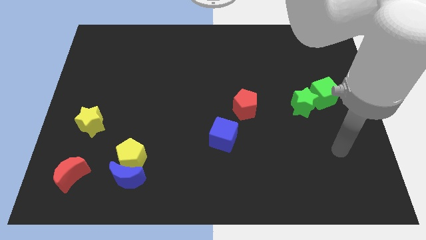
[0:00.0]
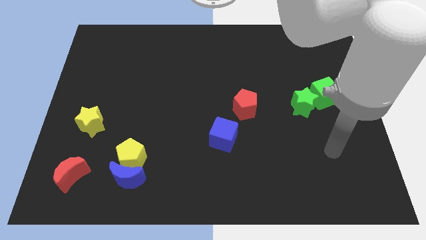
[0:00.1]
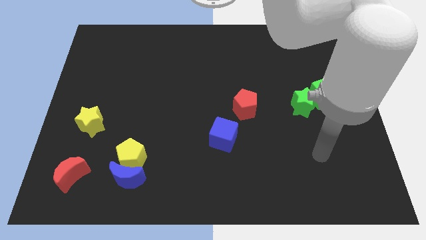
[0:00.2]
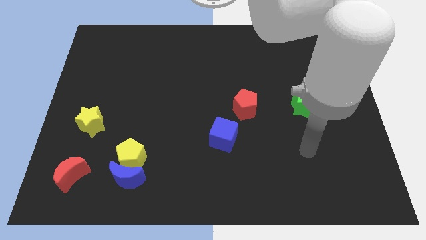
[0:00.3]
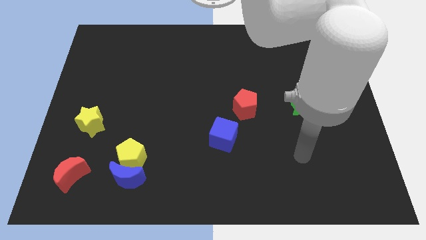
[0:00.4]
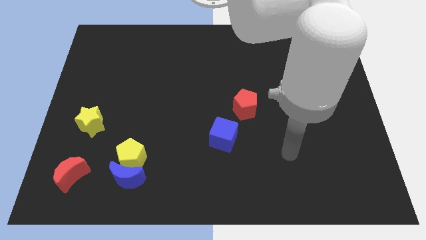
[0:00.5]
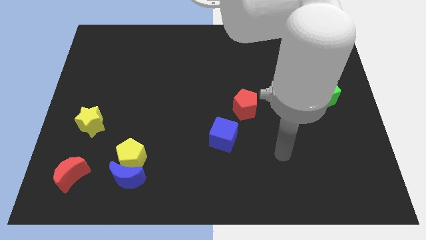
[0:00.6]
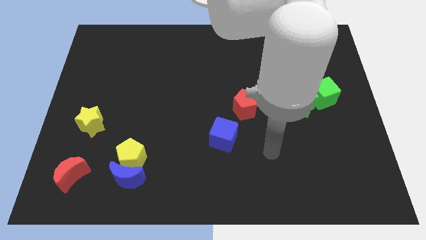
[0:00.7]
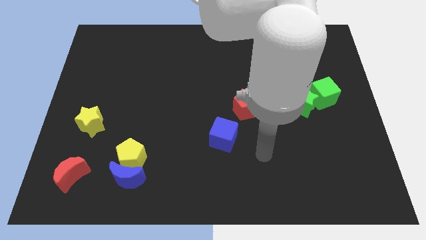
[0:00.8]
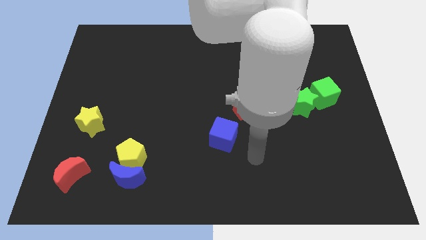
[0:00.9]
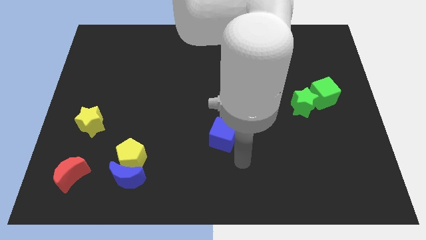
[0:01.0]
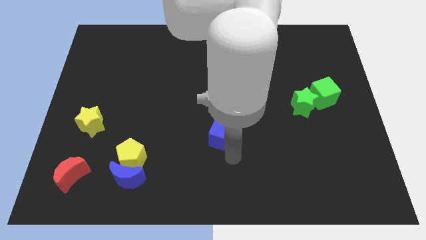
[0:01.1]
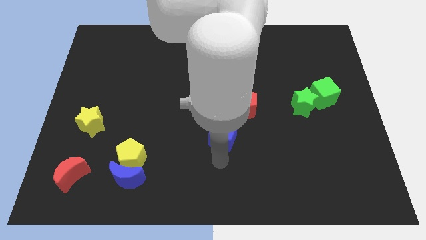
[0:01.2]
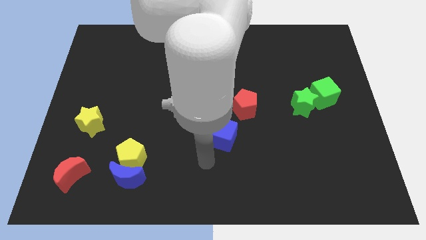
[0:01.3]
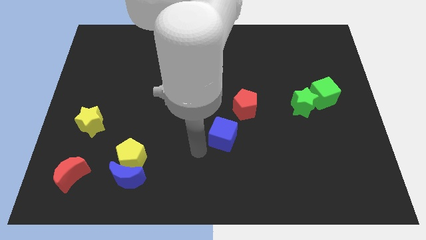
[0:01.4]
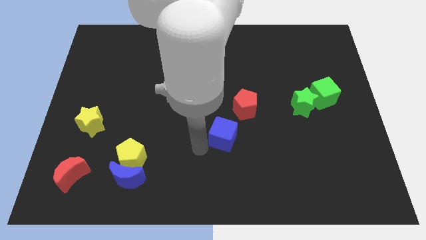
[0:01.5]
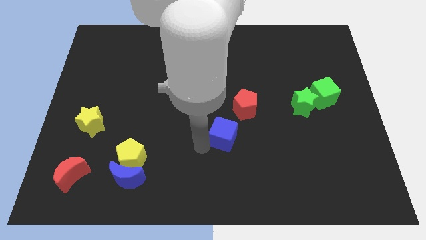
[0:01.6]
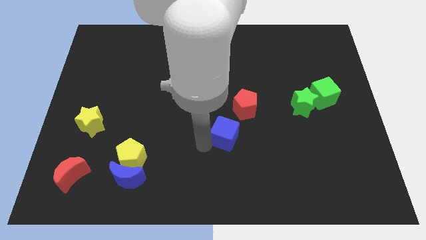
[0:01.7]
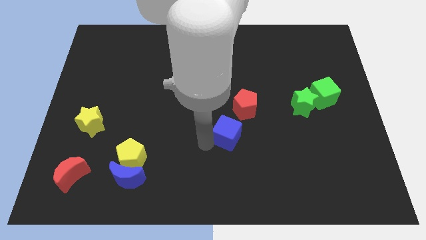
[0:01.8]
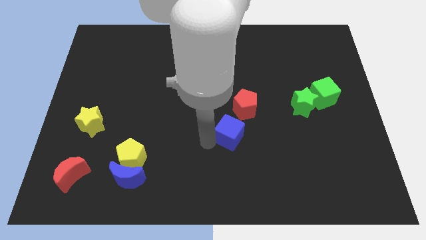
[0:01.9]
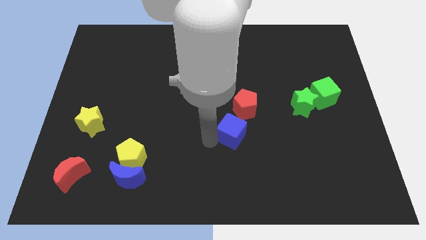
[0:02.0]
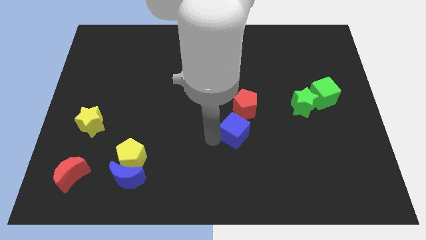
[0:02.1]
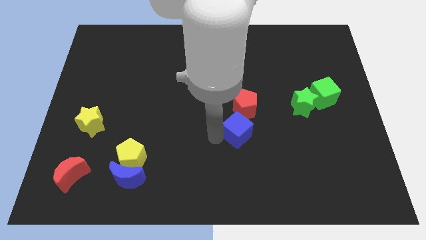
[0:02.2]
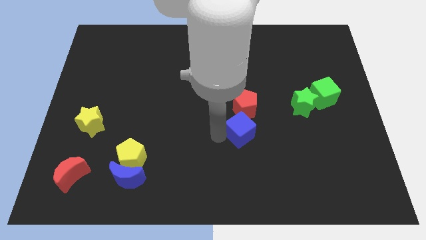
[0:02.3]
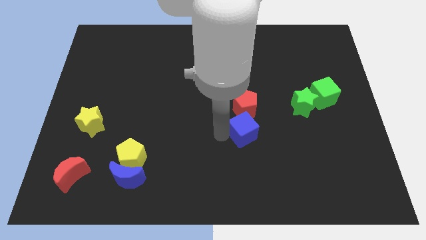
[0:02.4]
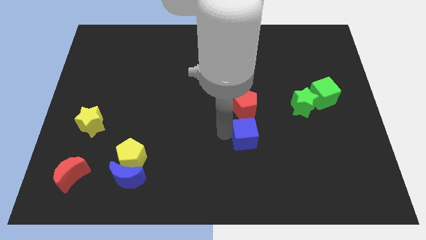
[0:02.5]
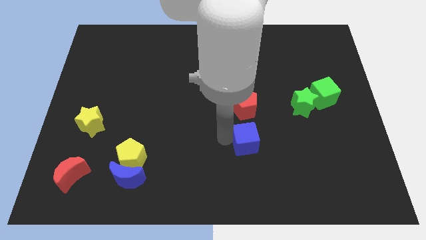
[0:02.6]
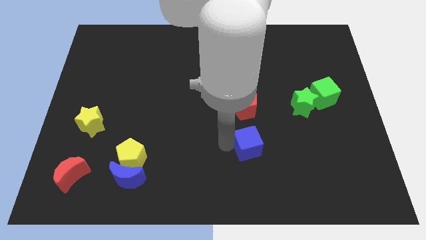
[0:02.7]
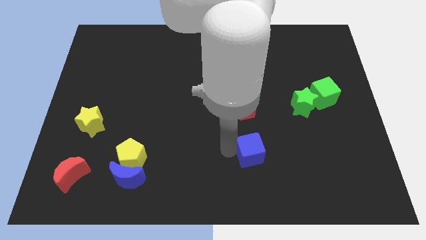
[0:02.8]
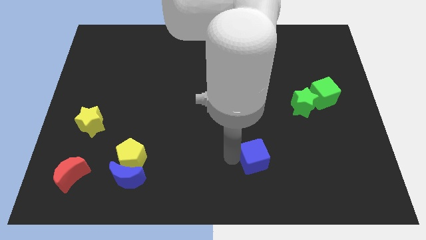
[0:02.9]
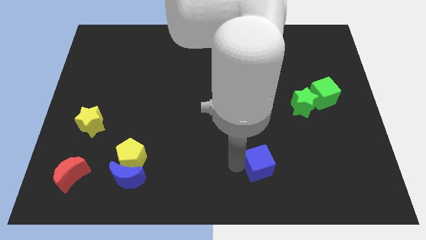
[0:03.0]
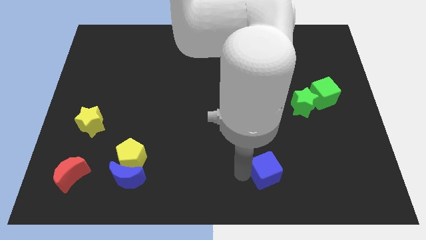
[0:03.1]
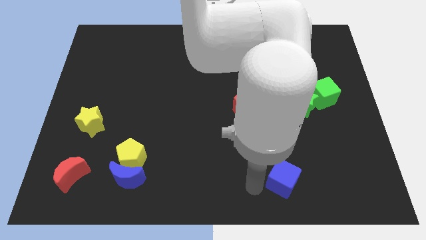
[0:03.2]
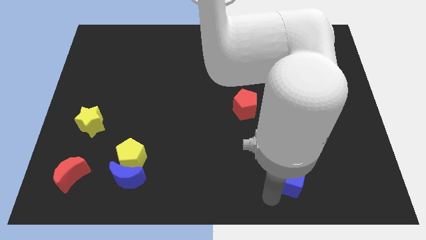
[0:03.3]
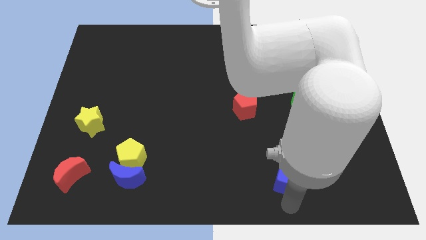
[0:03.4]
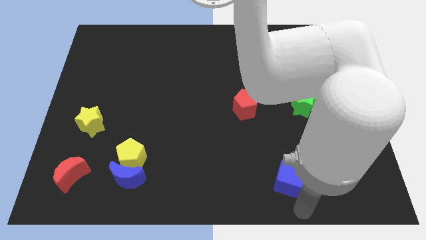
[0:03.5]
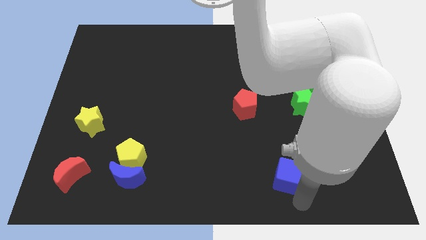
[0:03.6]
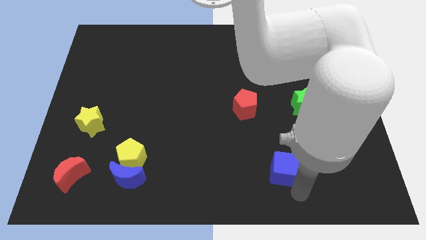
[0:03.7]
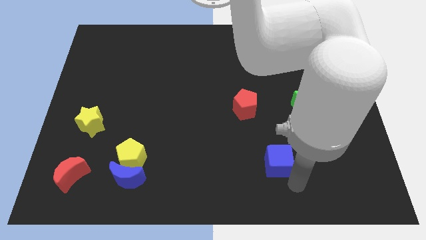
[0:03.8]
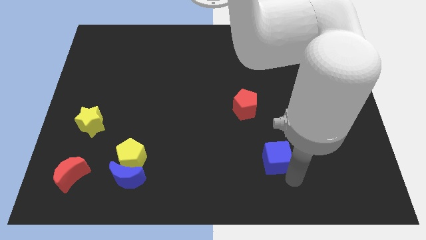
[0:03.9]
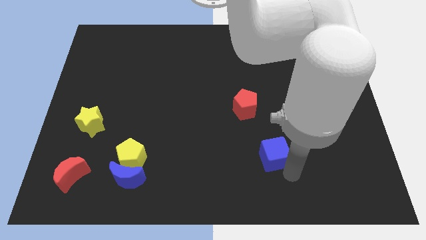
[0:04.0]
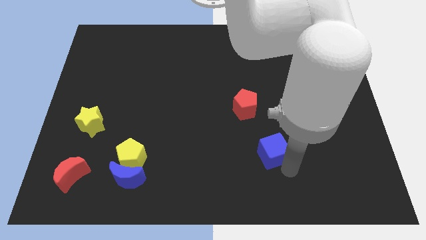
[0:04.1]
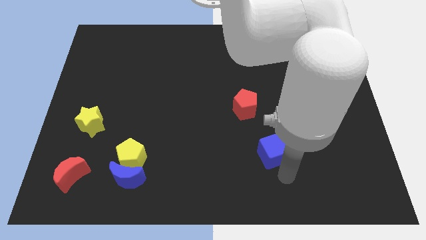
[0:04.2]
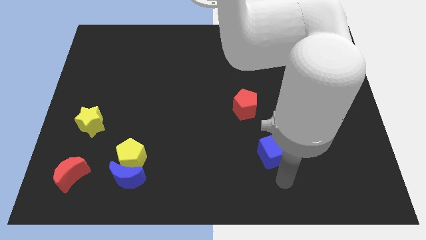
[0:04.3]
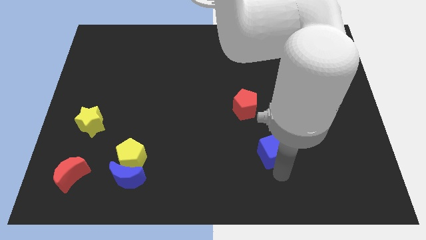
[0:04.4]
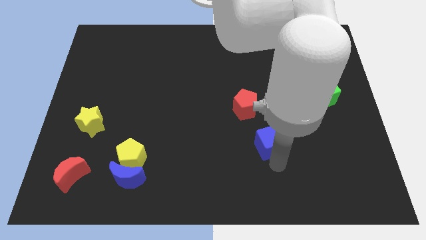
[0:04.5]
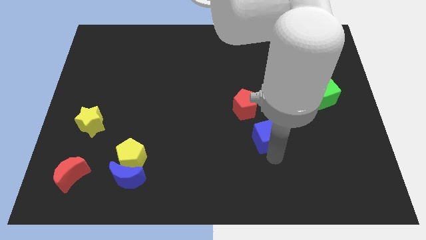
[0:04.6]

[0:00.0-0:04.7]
push the blue cube to the bottom left side of the green star

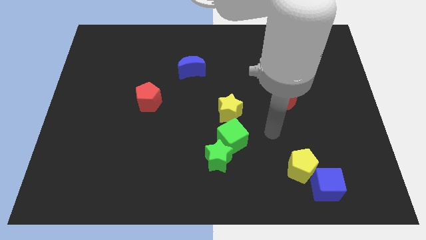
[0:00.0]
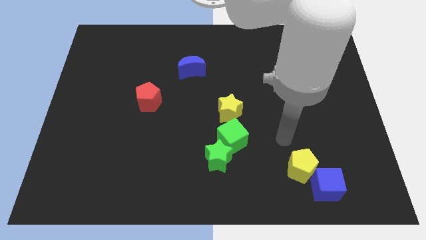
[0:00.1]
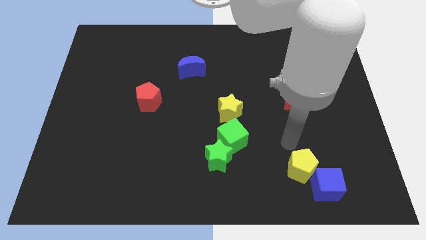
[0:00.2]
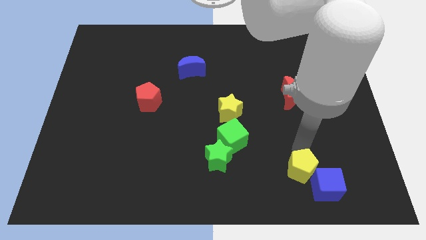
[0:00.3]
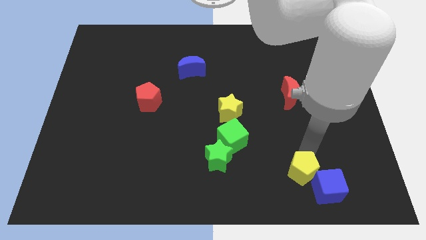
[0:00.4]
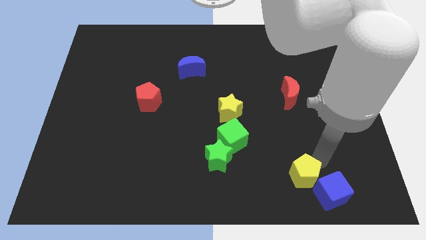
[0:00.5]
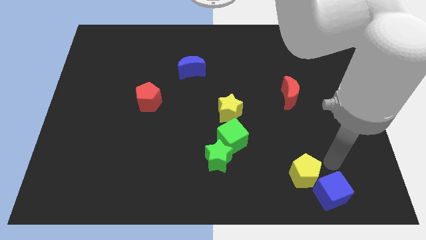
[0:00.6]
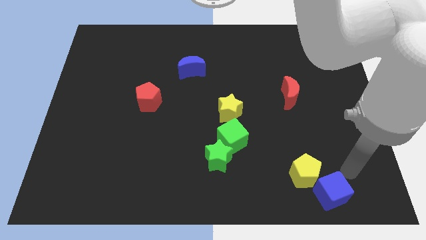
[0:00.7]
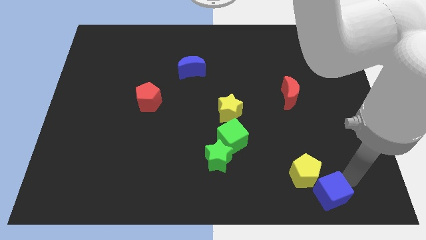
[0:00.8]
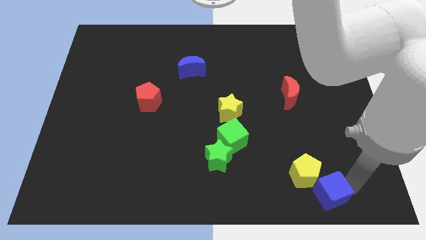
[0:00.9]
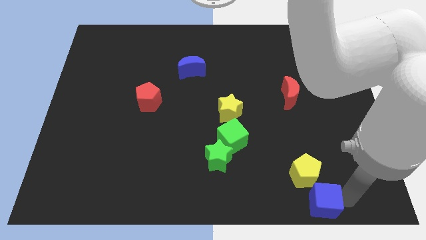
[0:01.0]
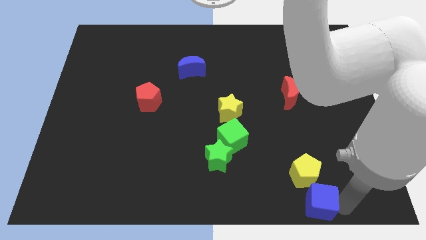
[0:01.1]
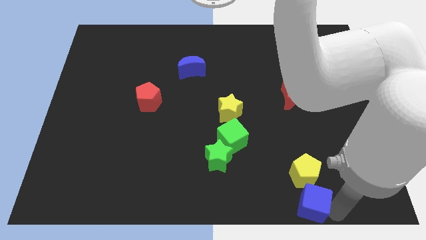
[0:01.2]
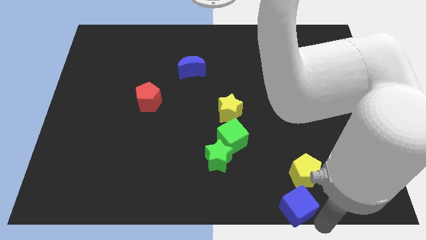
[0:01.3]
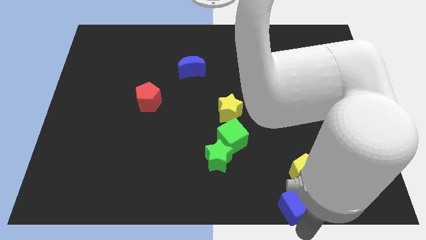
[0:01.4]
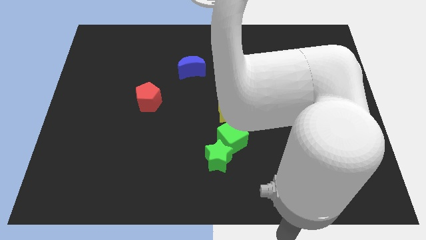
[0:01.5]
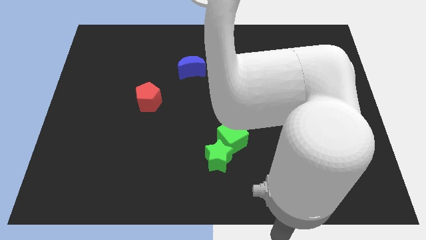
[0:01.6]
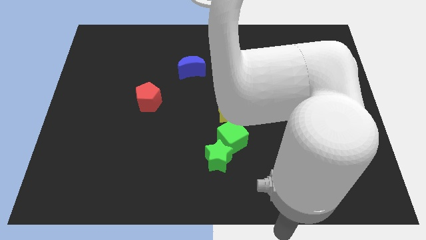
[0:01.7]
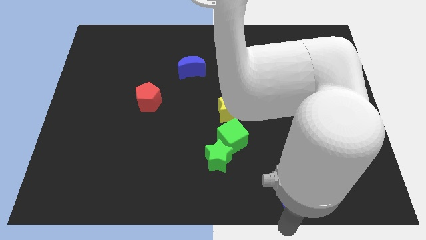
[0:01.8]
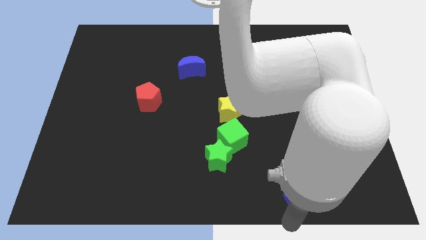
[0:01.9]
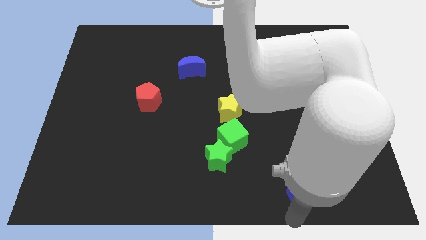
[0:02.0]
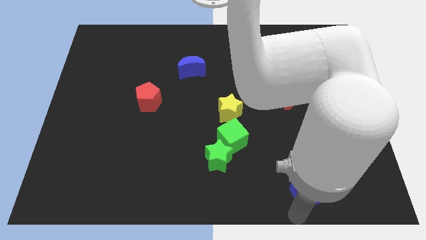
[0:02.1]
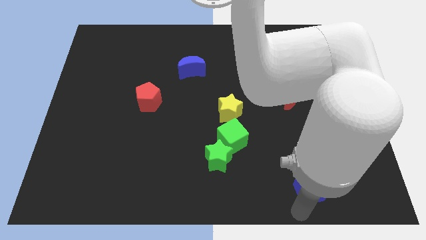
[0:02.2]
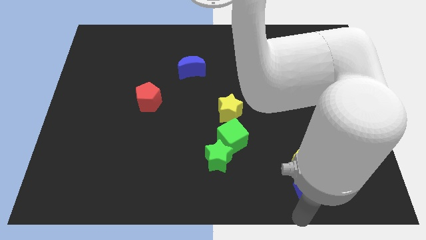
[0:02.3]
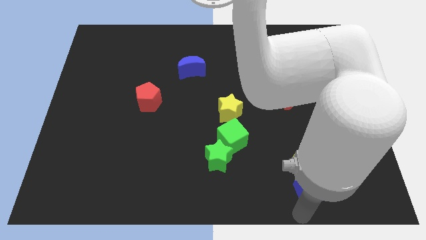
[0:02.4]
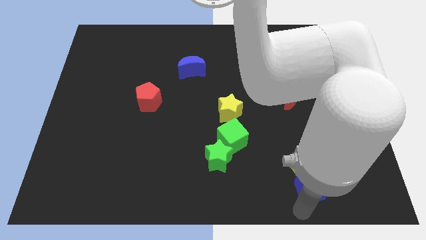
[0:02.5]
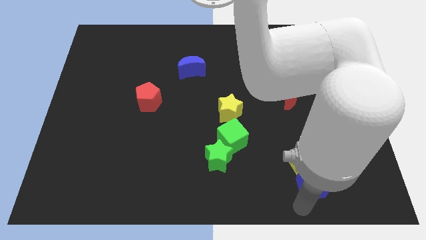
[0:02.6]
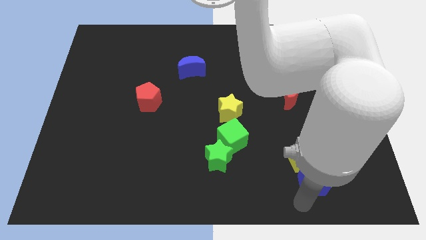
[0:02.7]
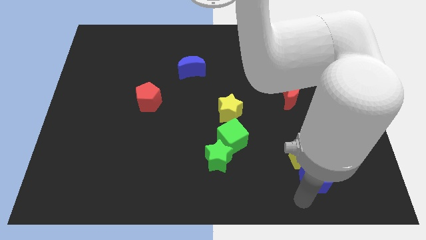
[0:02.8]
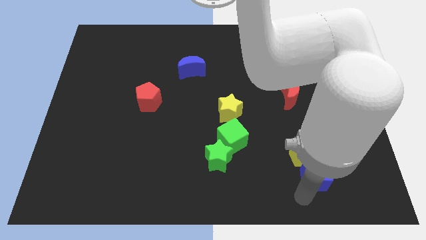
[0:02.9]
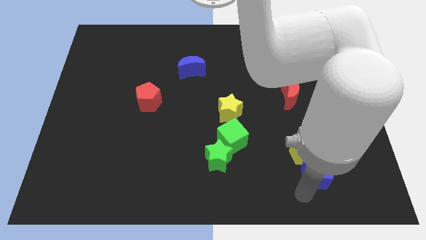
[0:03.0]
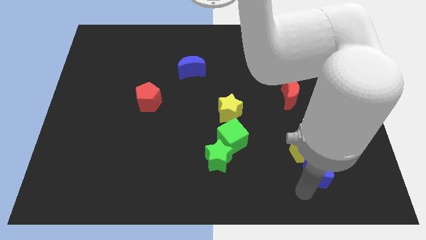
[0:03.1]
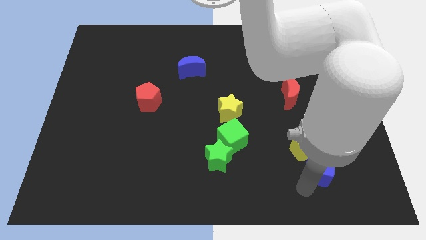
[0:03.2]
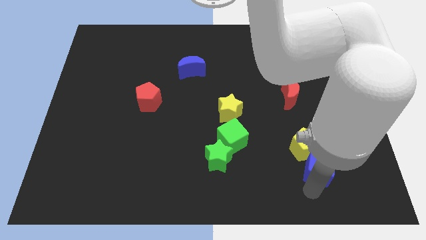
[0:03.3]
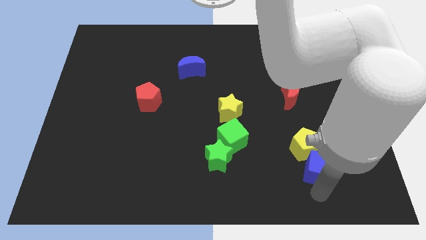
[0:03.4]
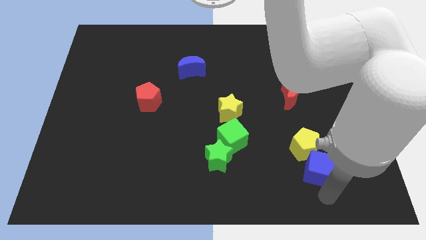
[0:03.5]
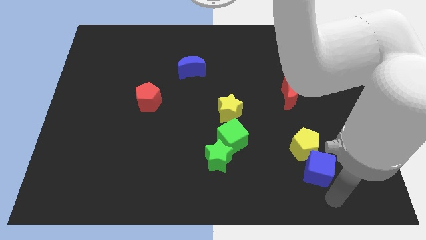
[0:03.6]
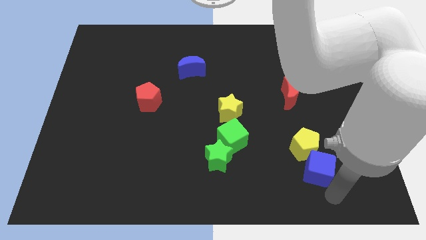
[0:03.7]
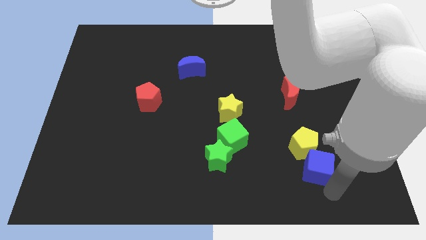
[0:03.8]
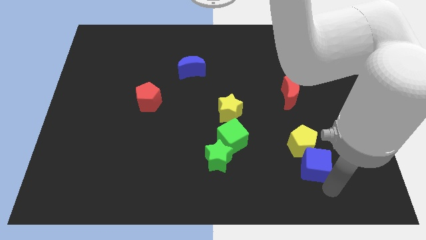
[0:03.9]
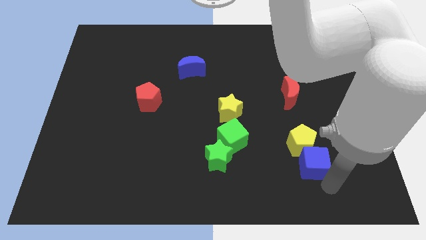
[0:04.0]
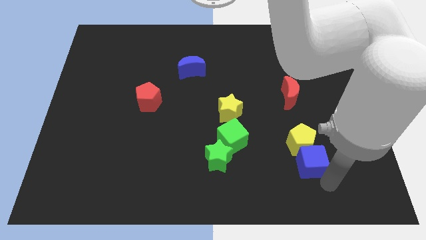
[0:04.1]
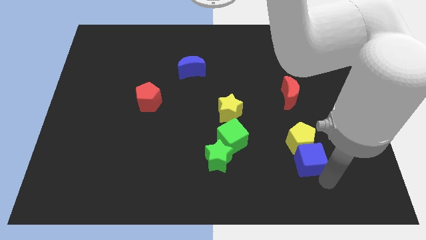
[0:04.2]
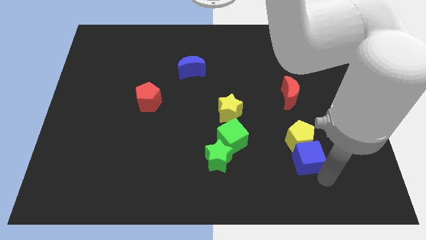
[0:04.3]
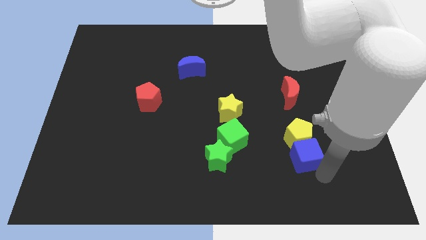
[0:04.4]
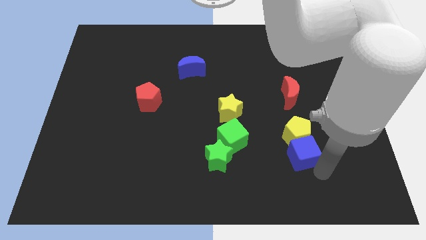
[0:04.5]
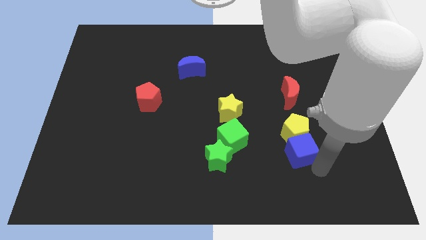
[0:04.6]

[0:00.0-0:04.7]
push the blue cube just right of the green cube
